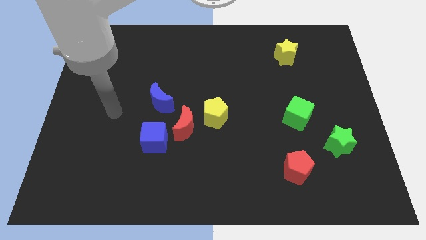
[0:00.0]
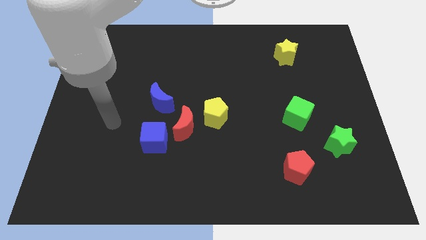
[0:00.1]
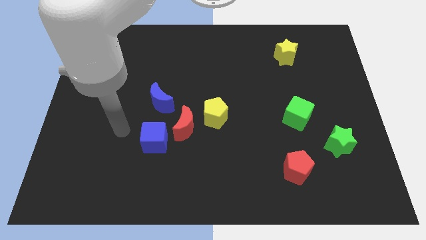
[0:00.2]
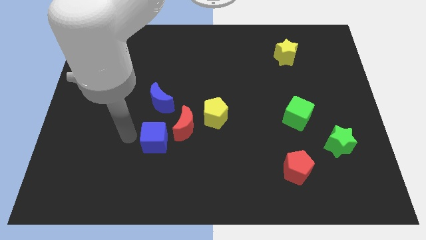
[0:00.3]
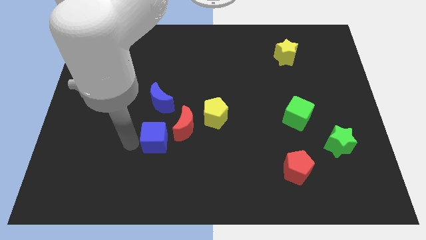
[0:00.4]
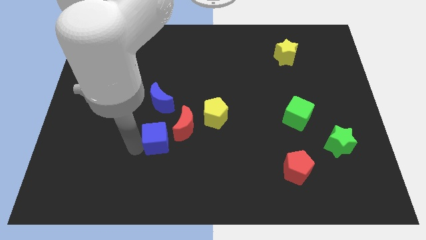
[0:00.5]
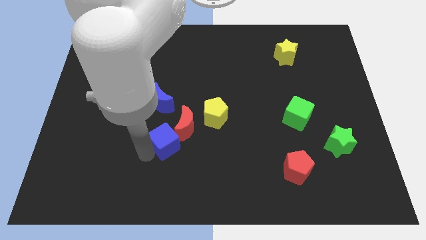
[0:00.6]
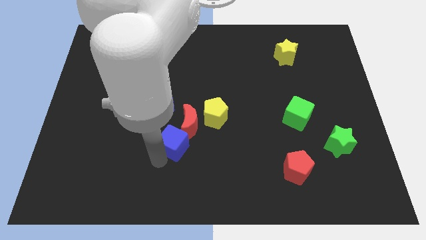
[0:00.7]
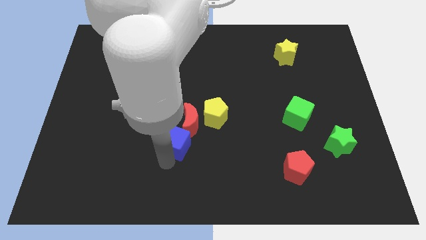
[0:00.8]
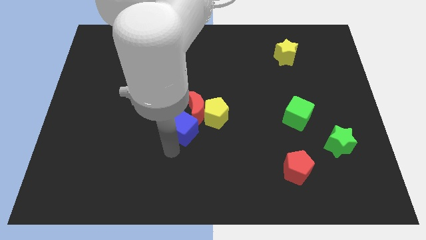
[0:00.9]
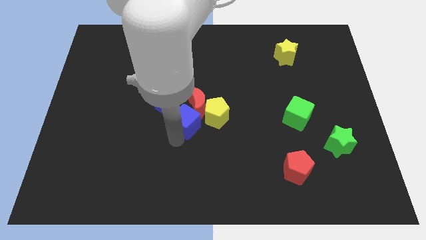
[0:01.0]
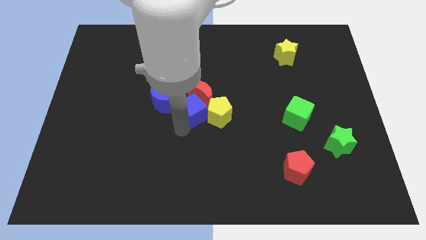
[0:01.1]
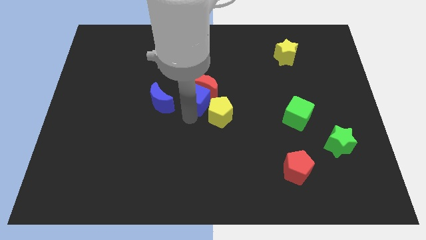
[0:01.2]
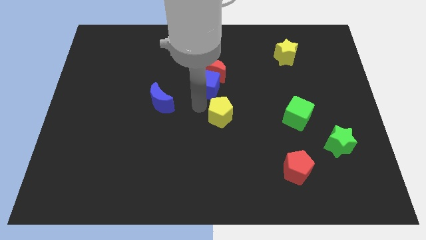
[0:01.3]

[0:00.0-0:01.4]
move the yellow pentagon away from the red moon

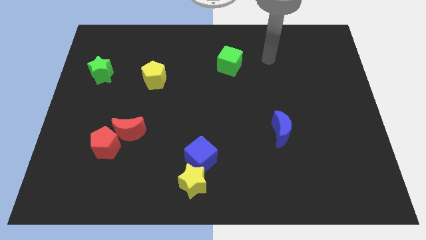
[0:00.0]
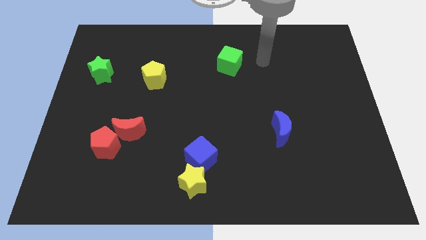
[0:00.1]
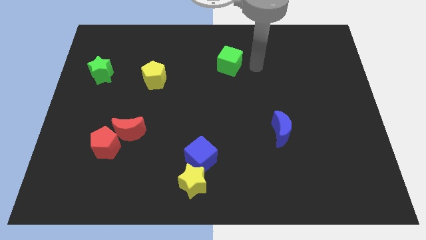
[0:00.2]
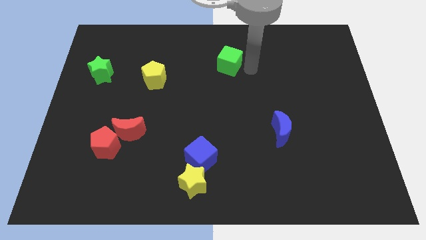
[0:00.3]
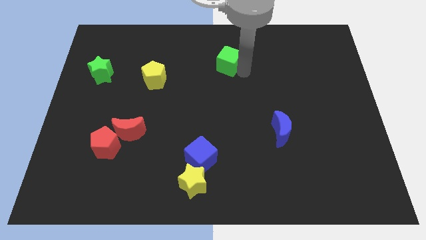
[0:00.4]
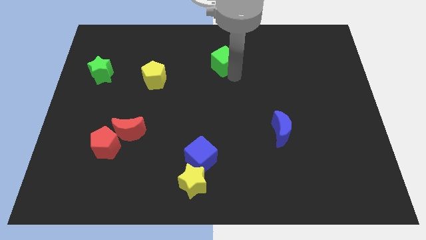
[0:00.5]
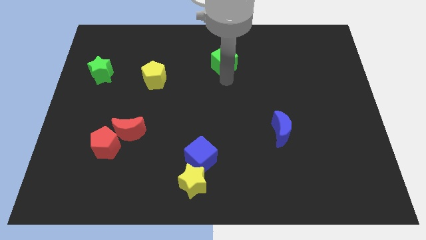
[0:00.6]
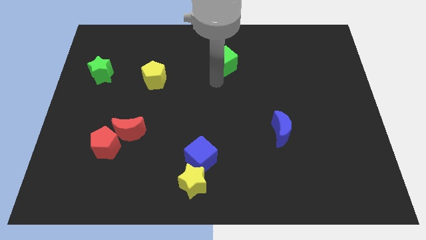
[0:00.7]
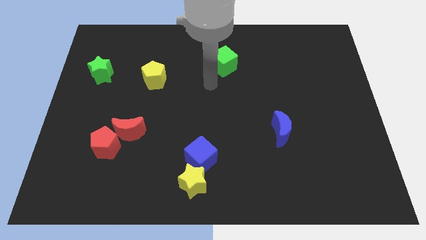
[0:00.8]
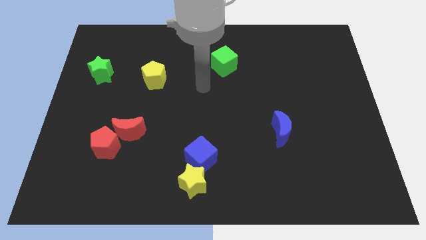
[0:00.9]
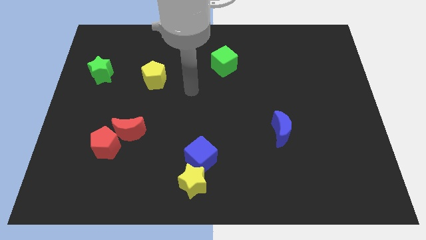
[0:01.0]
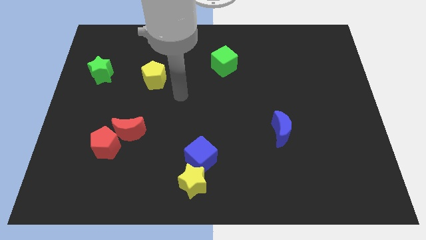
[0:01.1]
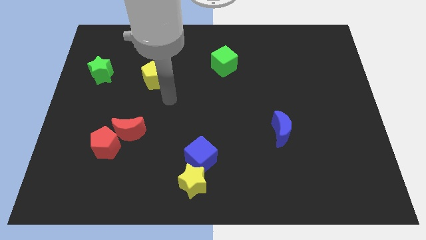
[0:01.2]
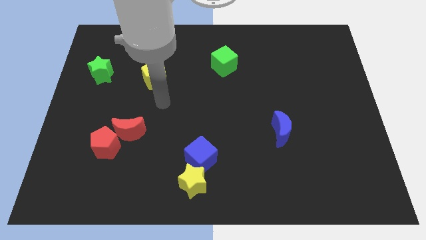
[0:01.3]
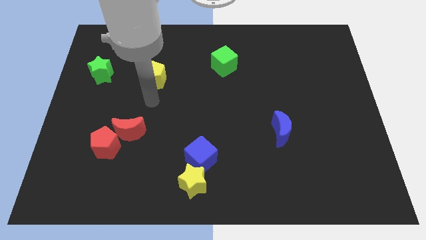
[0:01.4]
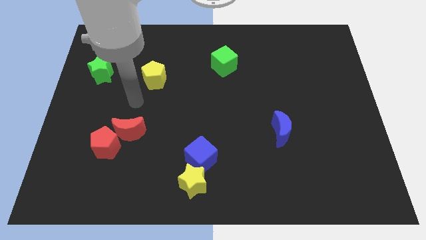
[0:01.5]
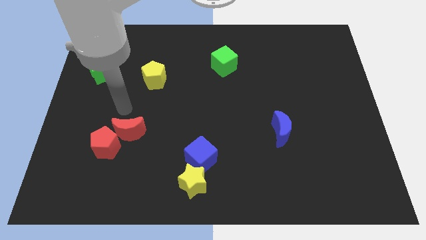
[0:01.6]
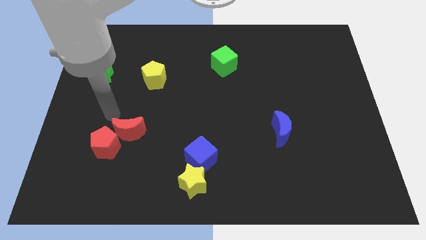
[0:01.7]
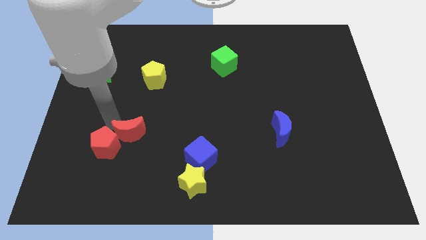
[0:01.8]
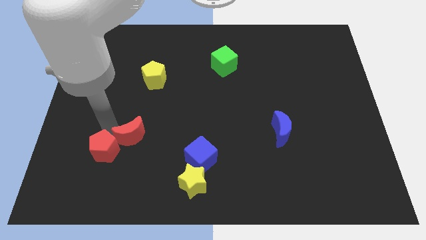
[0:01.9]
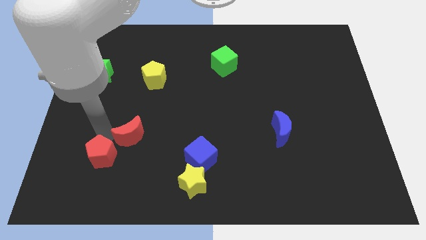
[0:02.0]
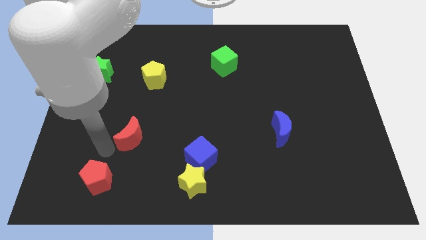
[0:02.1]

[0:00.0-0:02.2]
move the red moon away from the red pentagon

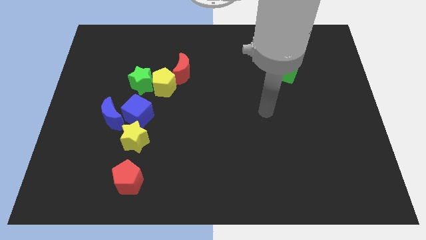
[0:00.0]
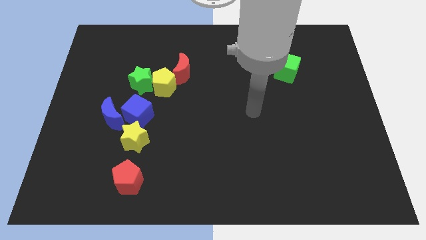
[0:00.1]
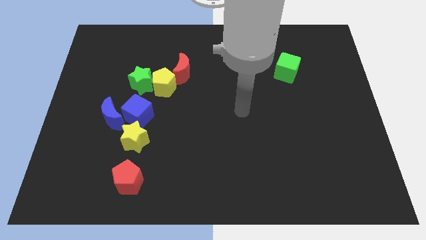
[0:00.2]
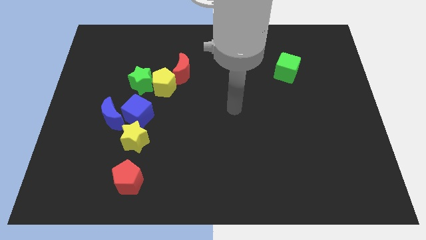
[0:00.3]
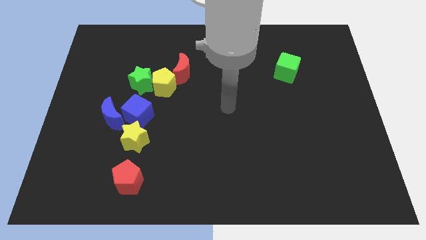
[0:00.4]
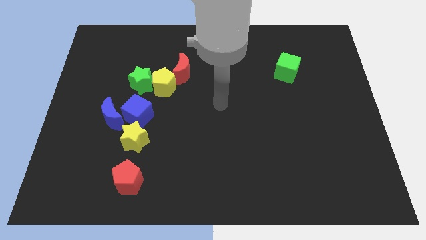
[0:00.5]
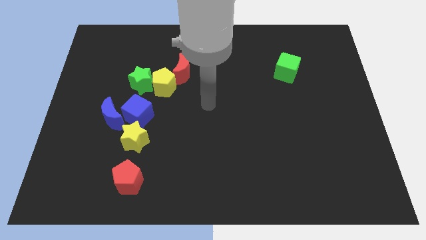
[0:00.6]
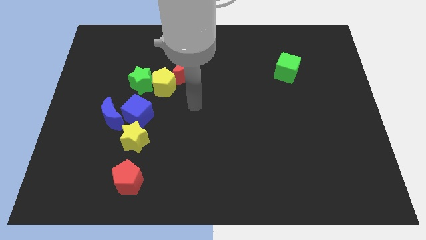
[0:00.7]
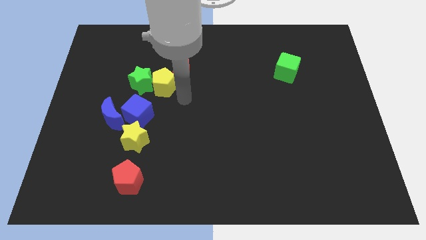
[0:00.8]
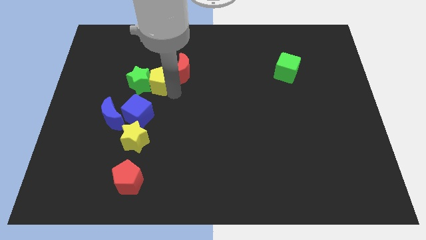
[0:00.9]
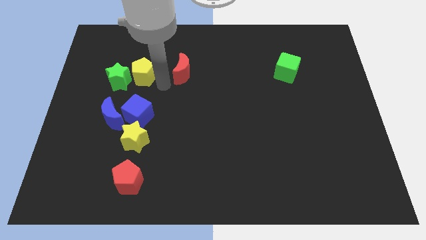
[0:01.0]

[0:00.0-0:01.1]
move the red moon away from the yellow pentagon

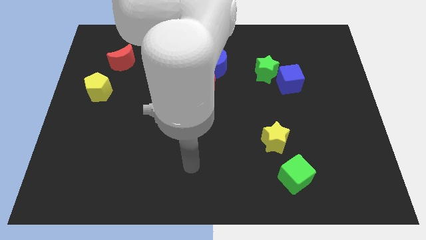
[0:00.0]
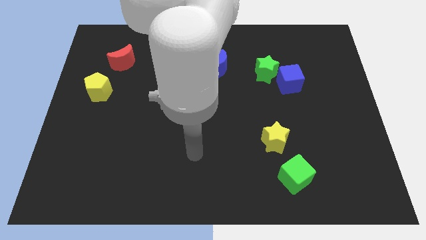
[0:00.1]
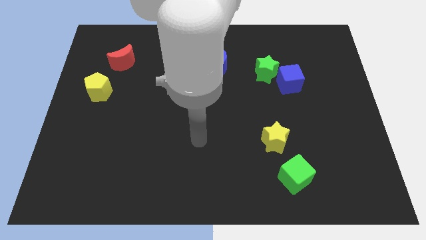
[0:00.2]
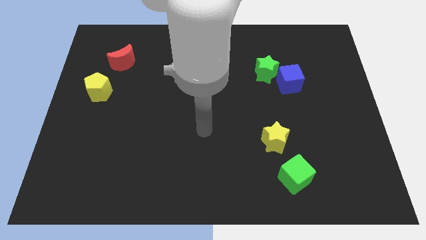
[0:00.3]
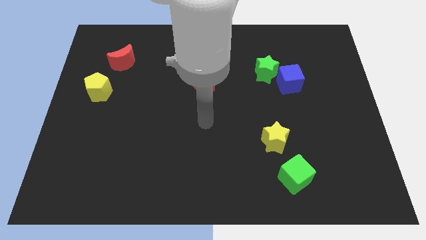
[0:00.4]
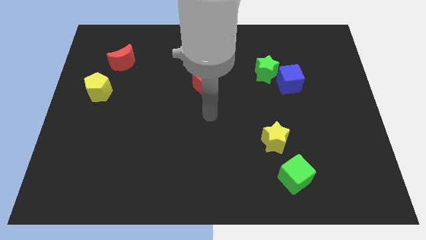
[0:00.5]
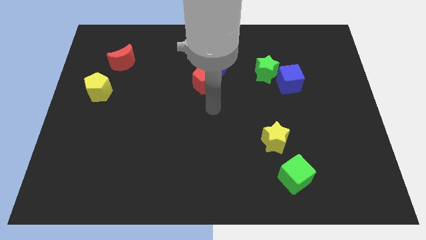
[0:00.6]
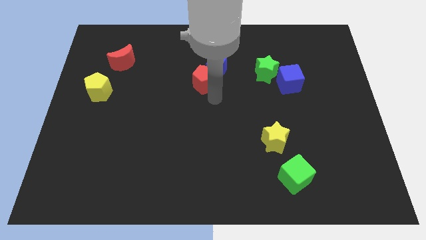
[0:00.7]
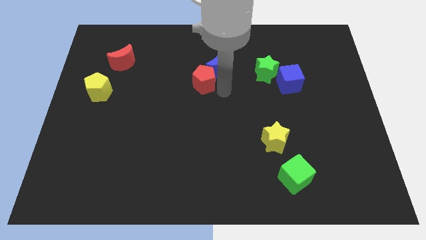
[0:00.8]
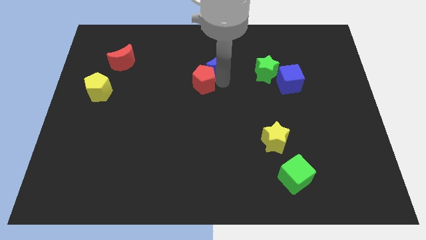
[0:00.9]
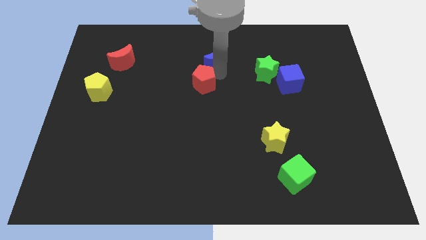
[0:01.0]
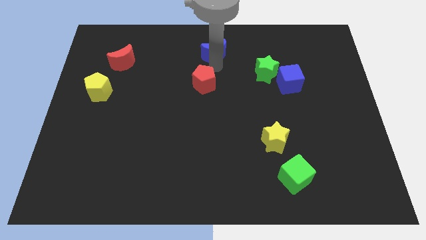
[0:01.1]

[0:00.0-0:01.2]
separate the red pentagon from the blue moon

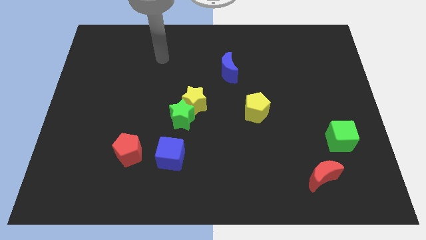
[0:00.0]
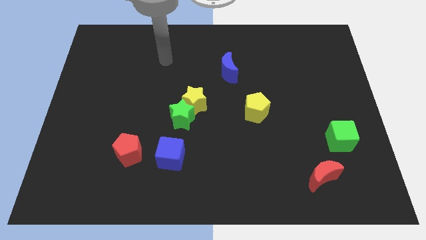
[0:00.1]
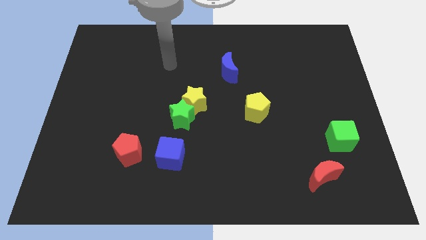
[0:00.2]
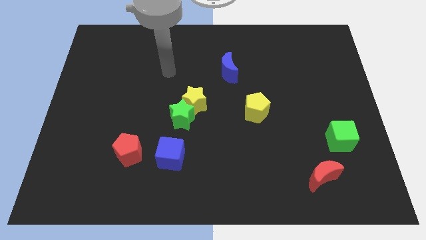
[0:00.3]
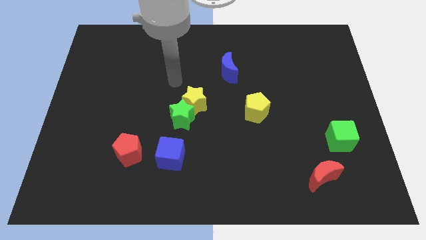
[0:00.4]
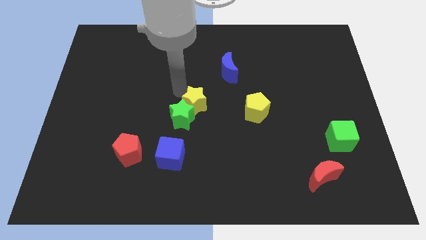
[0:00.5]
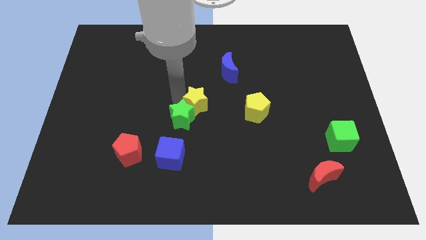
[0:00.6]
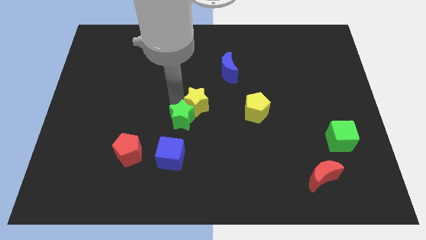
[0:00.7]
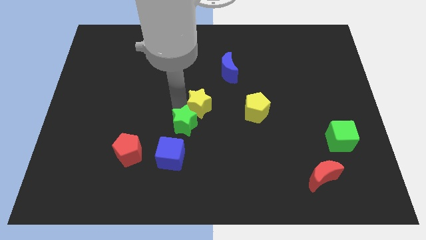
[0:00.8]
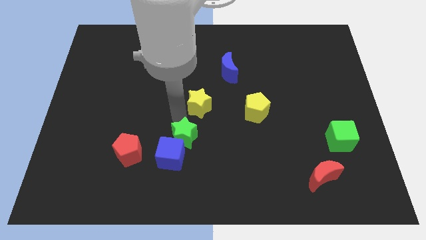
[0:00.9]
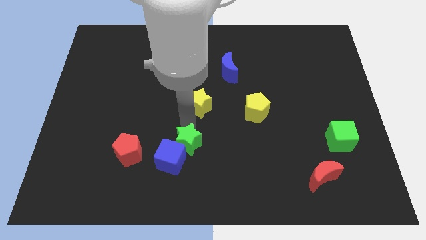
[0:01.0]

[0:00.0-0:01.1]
move the yellow star away from the green star

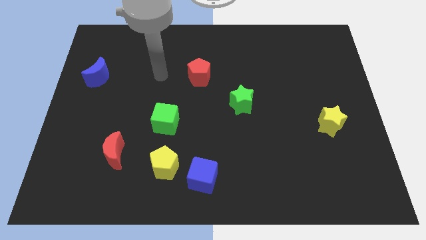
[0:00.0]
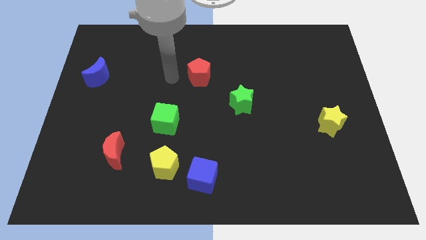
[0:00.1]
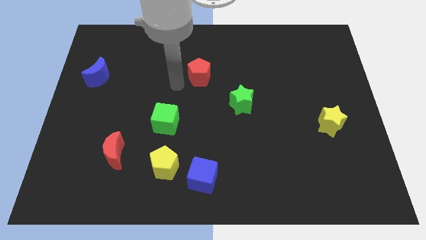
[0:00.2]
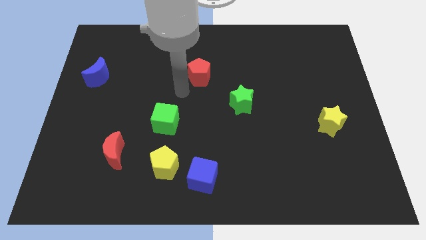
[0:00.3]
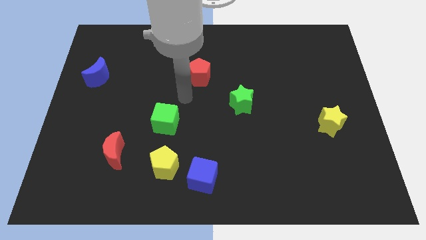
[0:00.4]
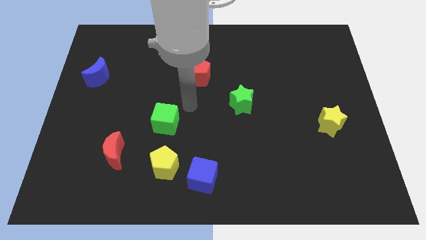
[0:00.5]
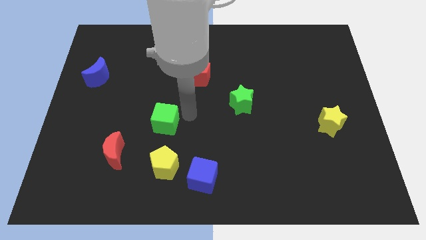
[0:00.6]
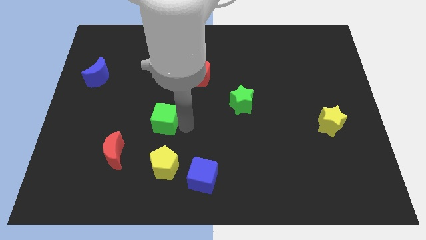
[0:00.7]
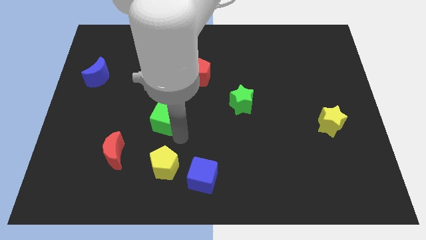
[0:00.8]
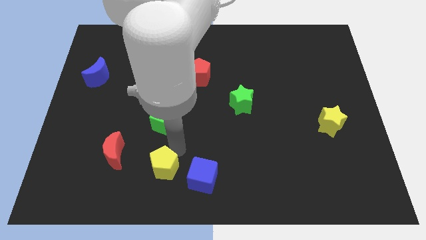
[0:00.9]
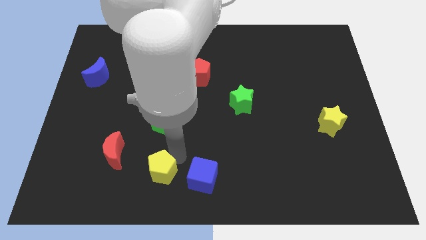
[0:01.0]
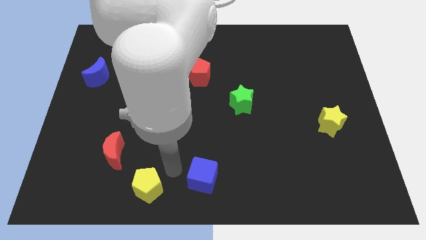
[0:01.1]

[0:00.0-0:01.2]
separate the blue cube from the yellow pentagon

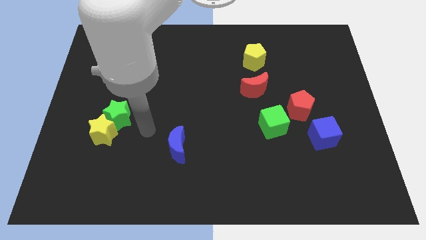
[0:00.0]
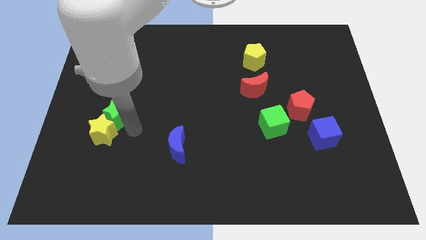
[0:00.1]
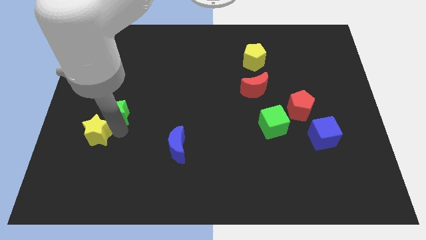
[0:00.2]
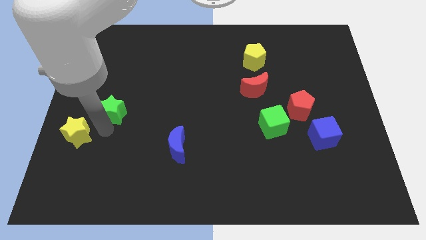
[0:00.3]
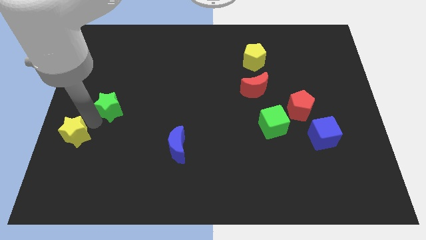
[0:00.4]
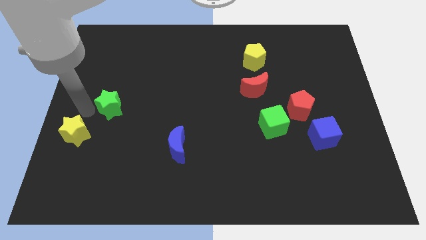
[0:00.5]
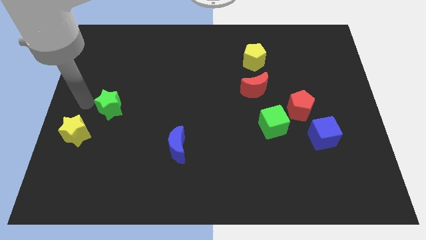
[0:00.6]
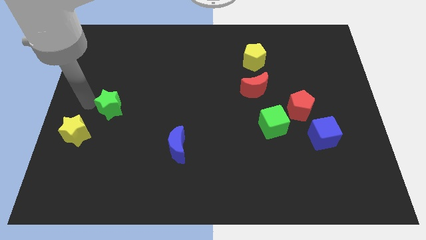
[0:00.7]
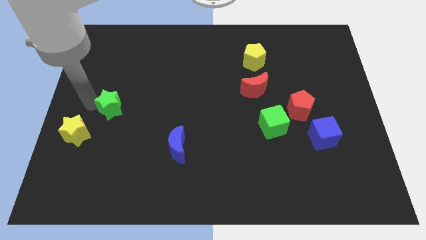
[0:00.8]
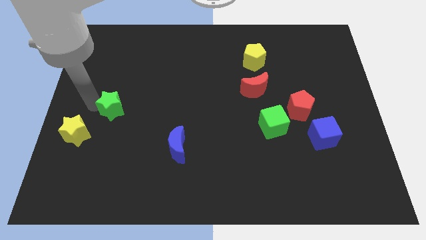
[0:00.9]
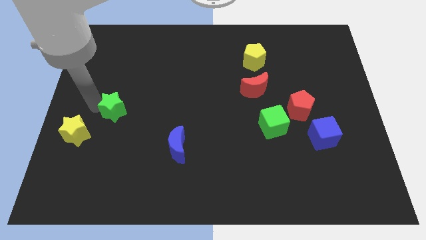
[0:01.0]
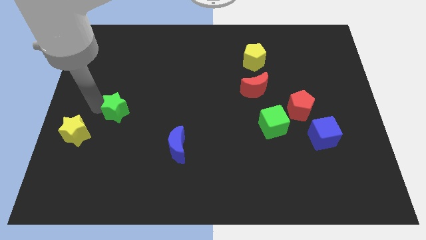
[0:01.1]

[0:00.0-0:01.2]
pull the green star apart from the yellow star
